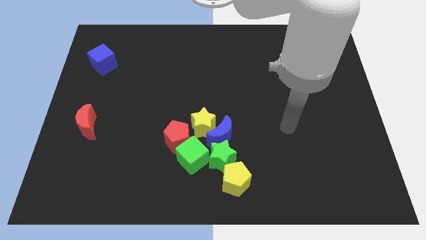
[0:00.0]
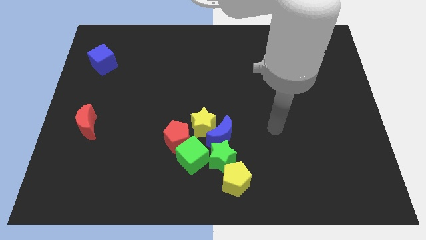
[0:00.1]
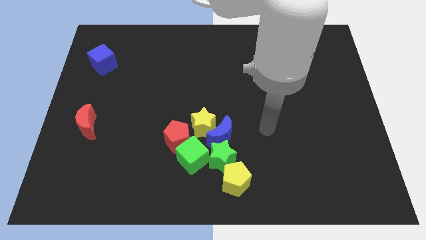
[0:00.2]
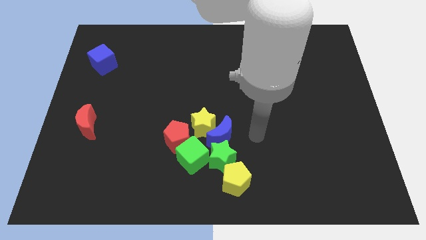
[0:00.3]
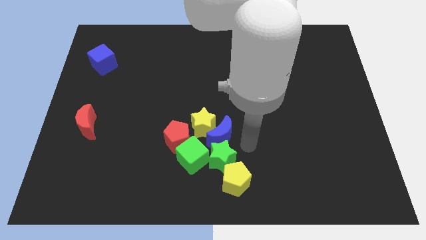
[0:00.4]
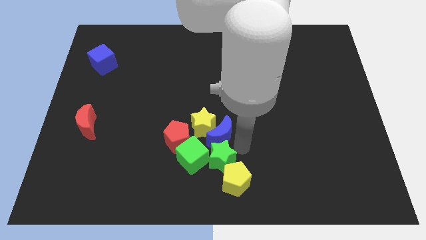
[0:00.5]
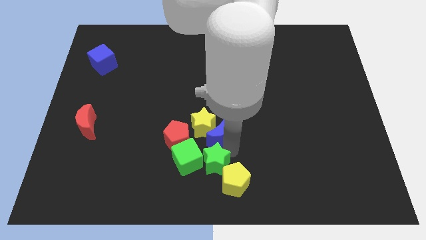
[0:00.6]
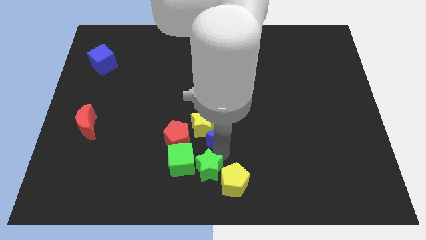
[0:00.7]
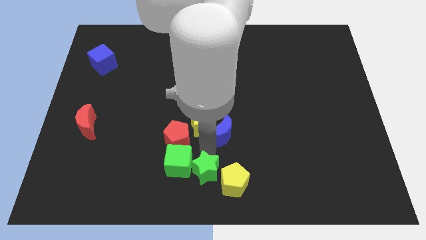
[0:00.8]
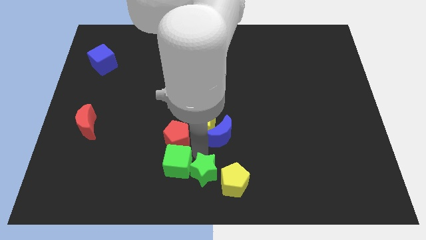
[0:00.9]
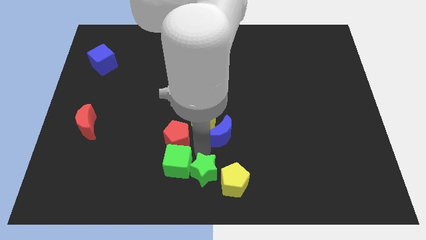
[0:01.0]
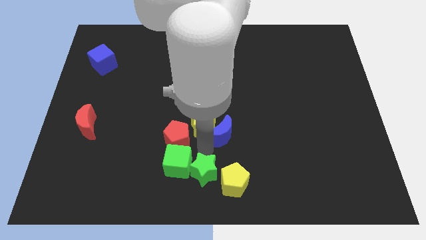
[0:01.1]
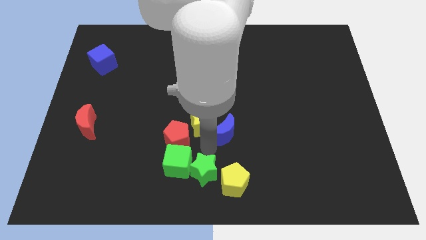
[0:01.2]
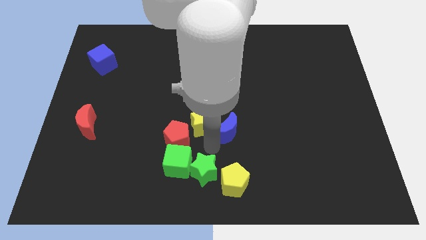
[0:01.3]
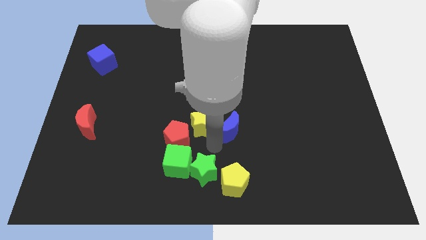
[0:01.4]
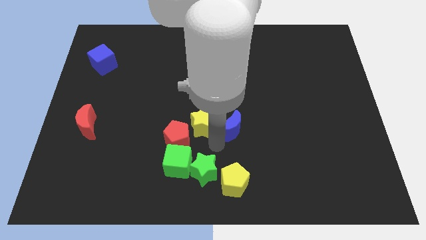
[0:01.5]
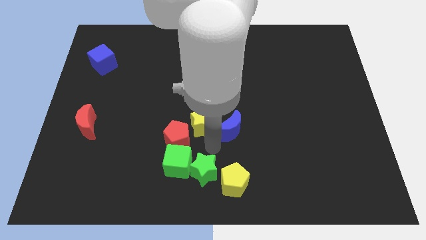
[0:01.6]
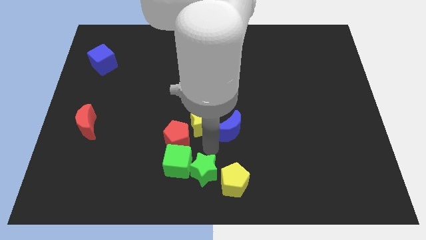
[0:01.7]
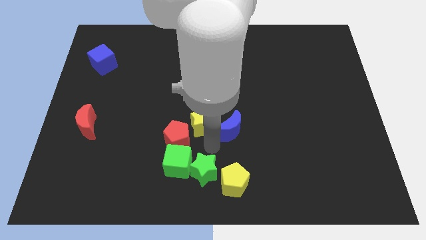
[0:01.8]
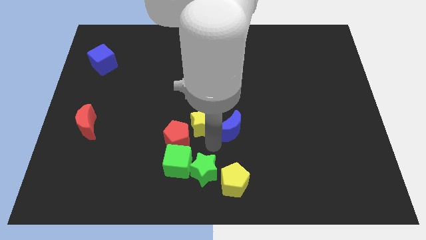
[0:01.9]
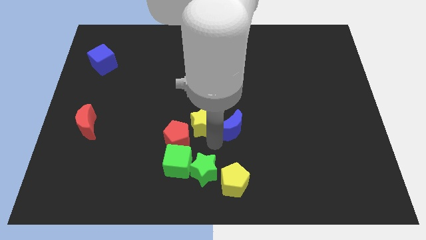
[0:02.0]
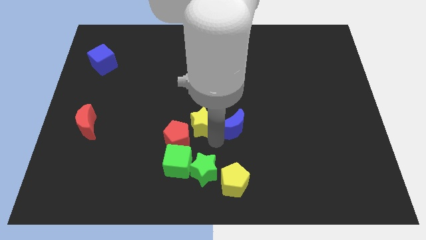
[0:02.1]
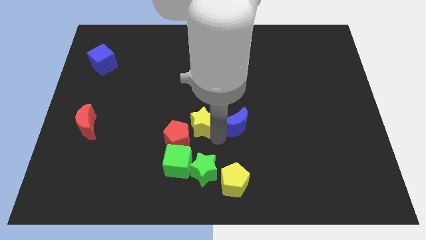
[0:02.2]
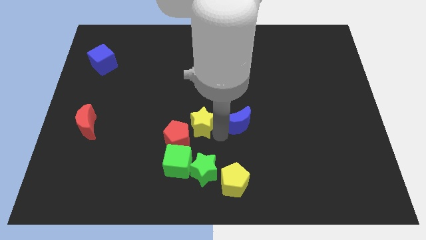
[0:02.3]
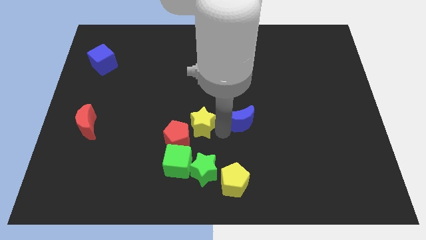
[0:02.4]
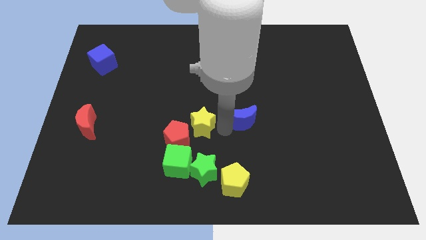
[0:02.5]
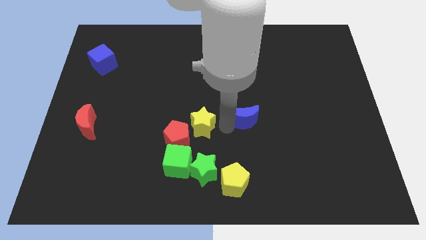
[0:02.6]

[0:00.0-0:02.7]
slide the blue moon upwards and then to the right somewhat

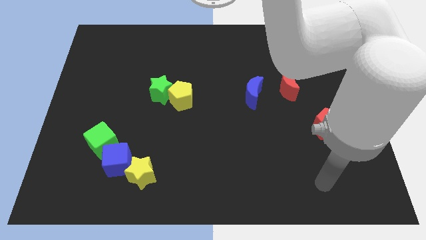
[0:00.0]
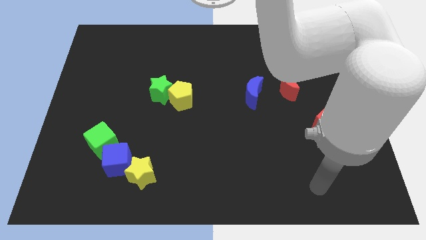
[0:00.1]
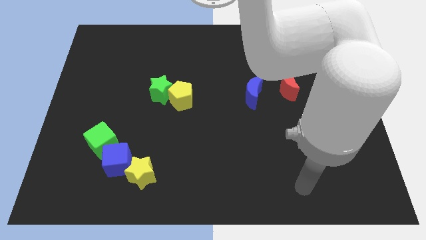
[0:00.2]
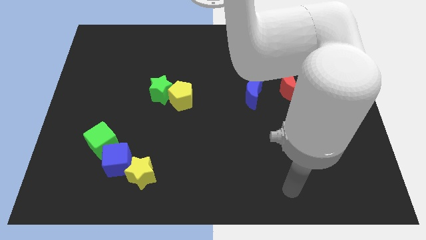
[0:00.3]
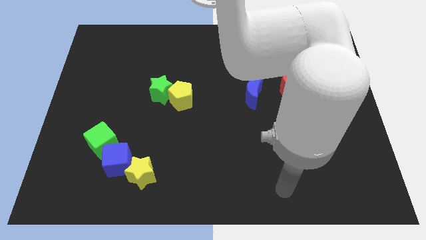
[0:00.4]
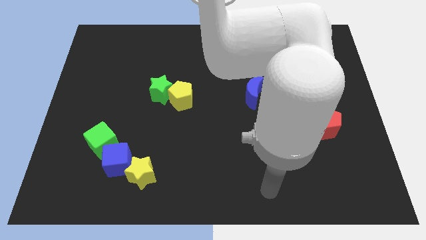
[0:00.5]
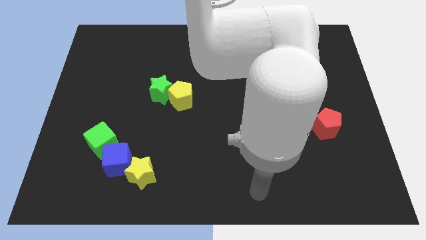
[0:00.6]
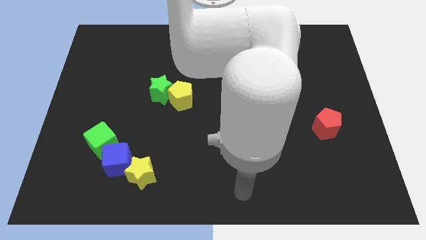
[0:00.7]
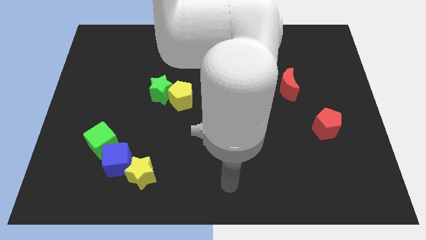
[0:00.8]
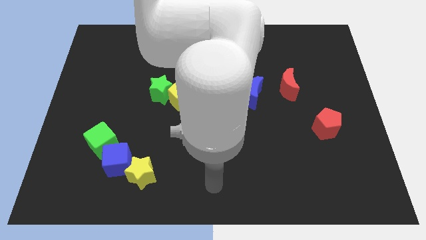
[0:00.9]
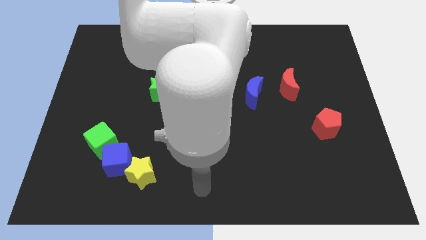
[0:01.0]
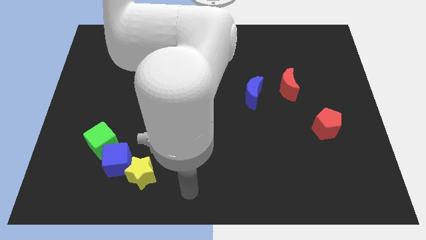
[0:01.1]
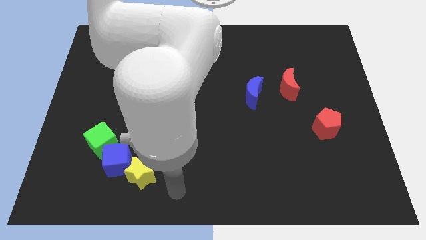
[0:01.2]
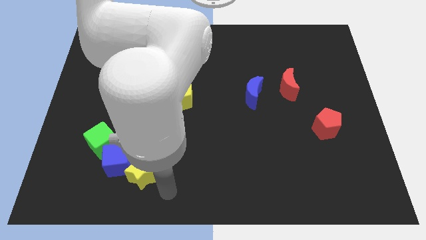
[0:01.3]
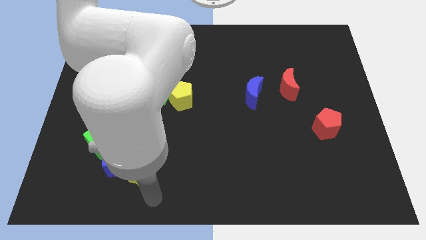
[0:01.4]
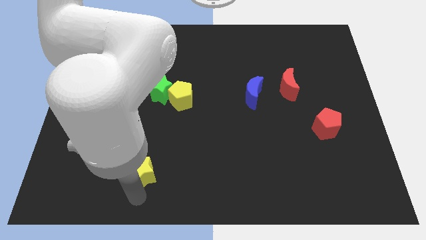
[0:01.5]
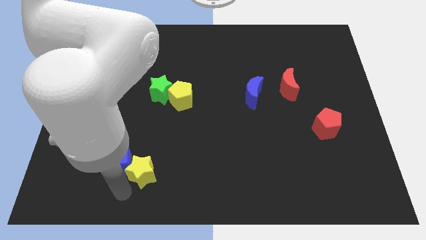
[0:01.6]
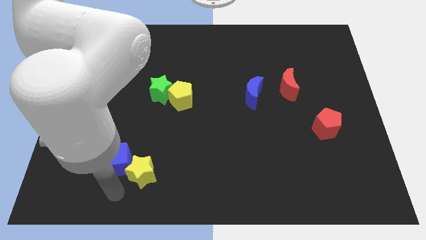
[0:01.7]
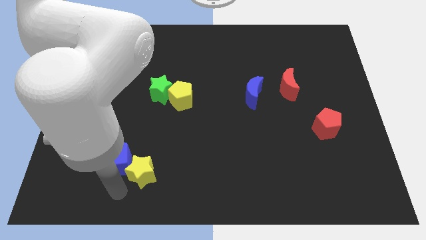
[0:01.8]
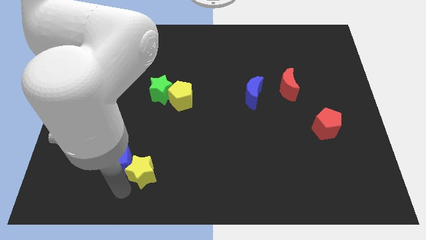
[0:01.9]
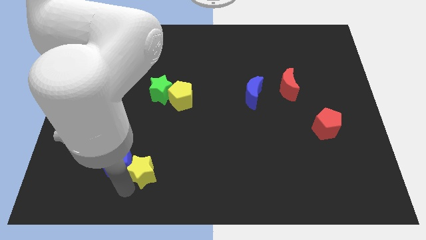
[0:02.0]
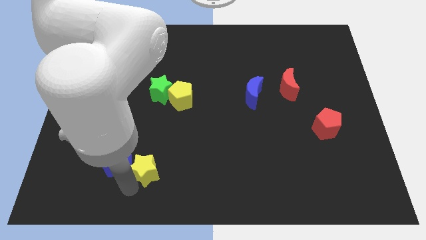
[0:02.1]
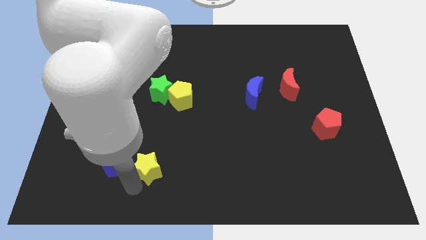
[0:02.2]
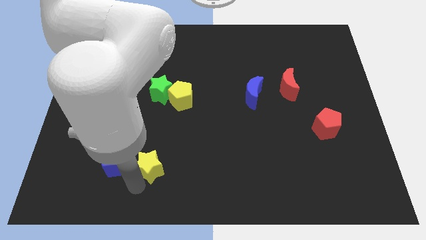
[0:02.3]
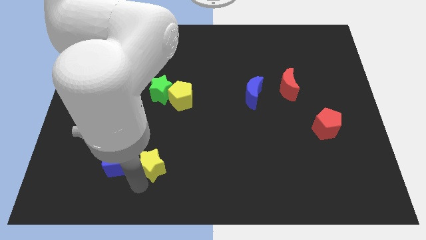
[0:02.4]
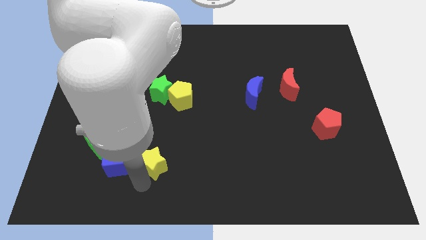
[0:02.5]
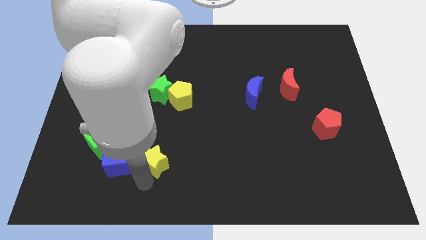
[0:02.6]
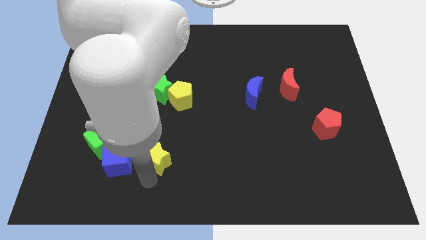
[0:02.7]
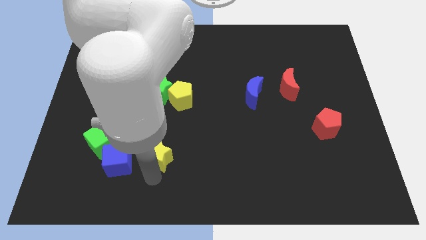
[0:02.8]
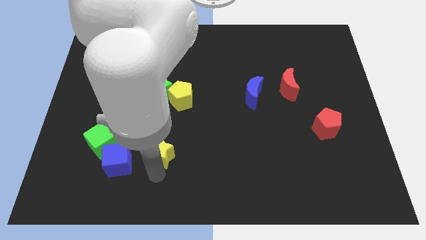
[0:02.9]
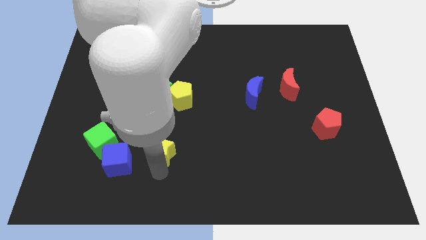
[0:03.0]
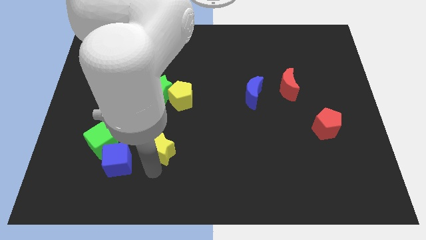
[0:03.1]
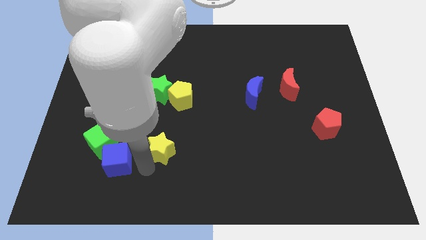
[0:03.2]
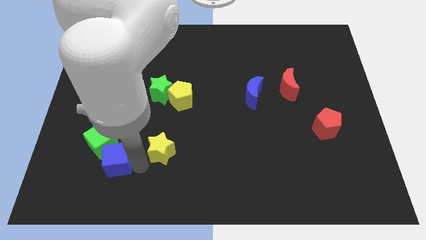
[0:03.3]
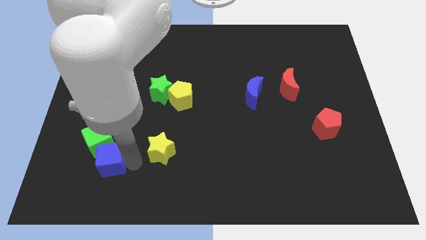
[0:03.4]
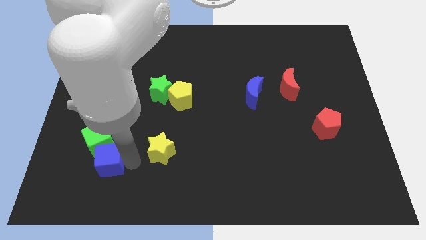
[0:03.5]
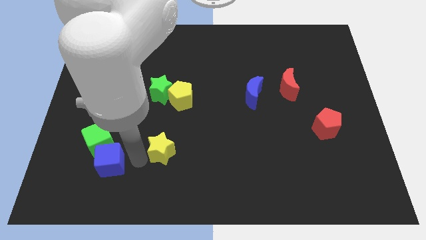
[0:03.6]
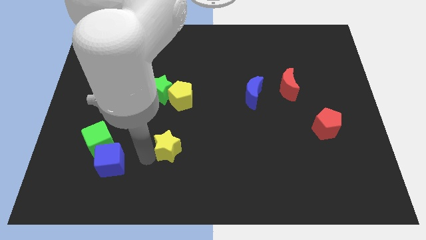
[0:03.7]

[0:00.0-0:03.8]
push the yellow star upwards and to the right diagonally a little

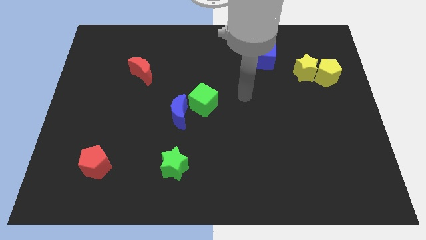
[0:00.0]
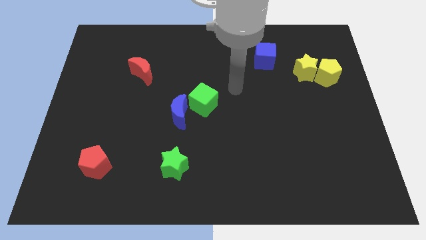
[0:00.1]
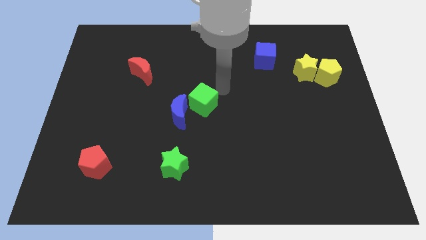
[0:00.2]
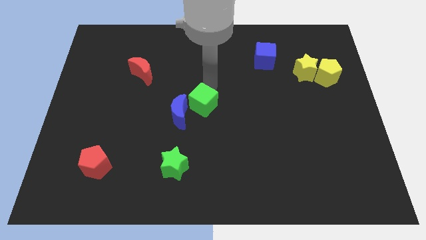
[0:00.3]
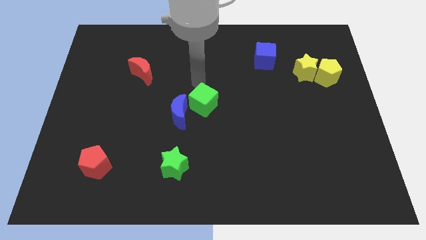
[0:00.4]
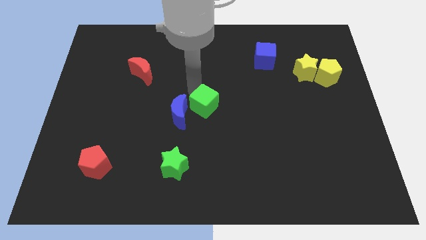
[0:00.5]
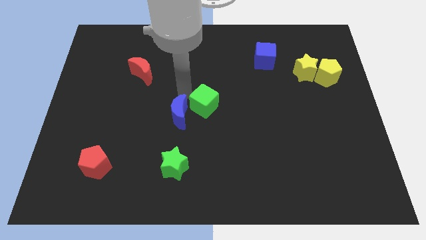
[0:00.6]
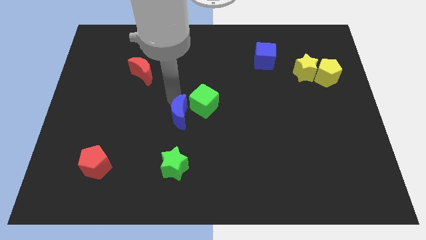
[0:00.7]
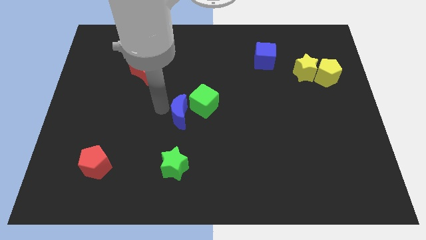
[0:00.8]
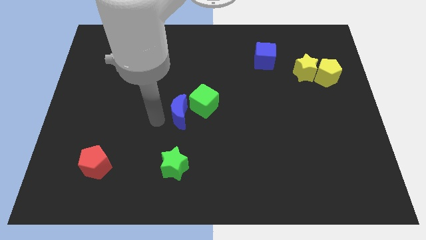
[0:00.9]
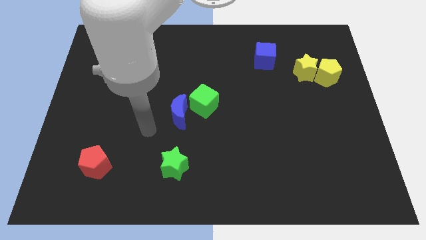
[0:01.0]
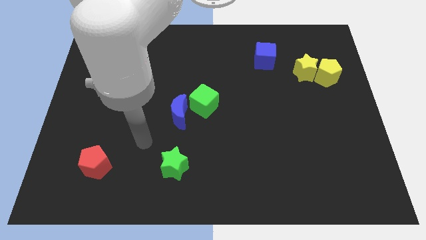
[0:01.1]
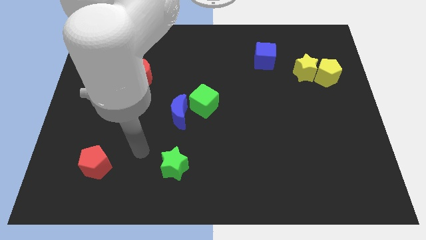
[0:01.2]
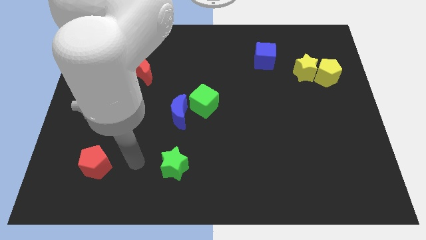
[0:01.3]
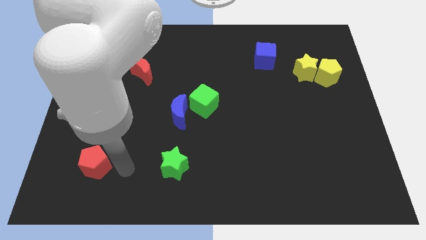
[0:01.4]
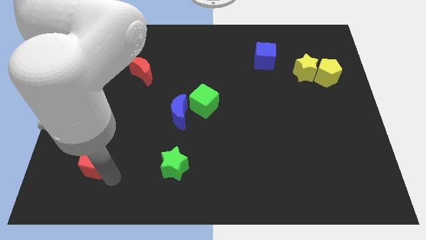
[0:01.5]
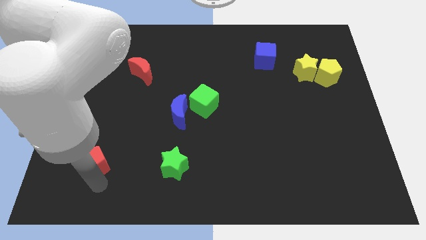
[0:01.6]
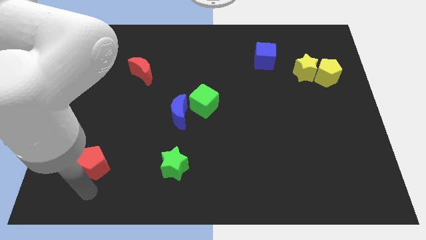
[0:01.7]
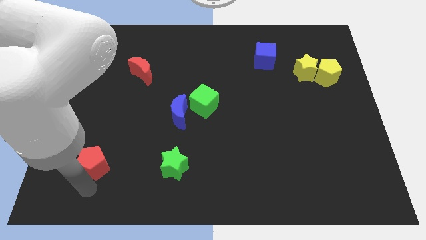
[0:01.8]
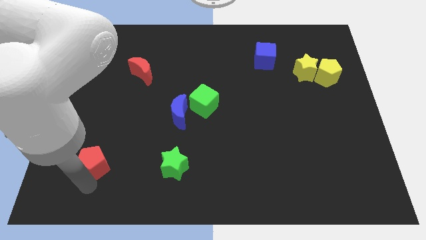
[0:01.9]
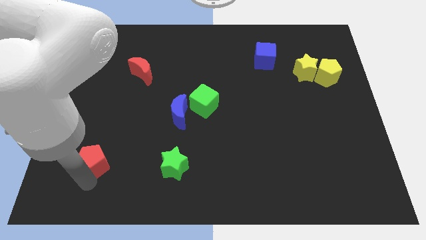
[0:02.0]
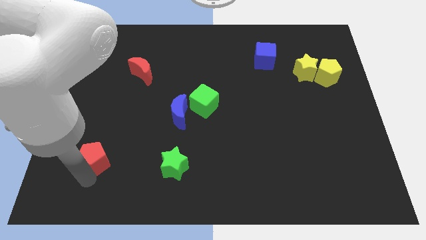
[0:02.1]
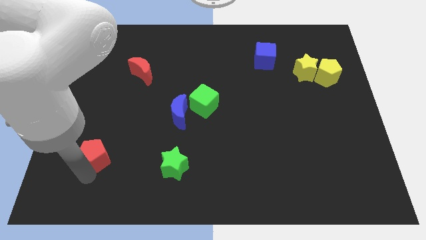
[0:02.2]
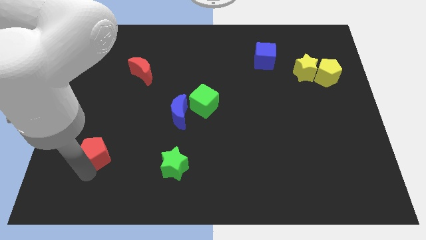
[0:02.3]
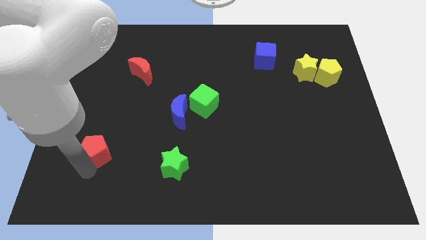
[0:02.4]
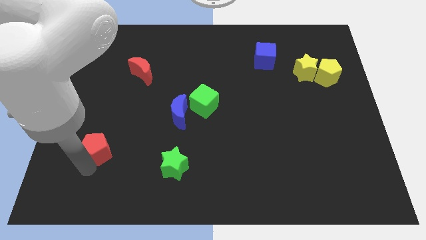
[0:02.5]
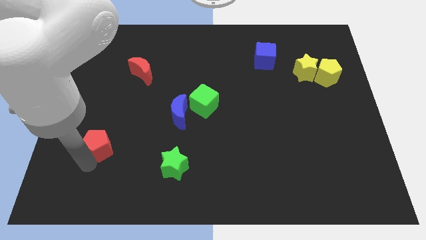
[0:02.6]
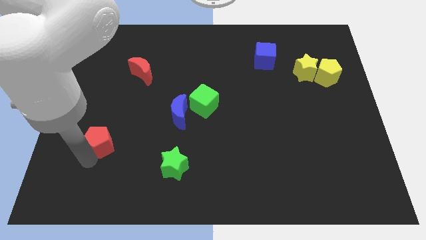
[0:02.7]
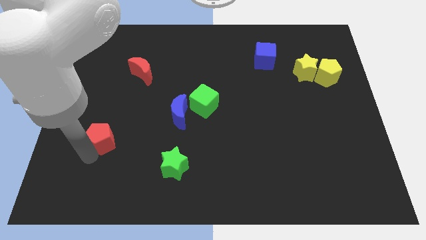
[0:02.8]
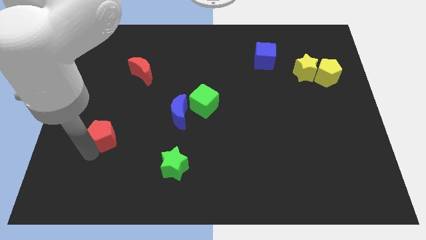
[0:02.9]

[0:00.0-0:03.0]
slightly slide the red pentagon up
